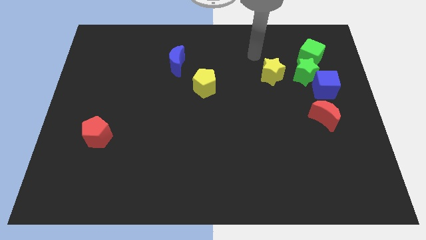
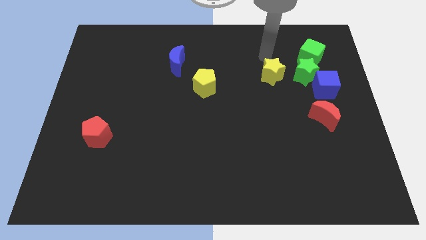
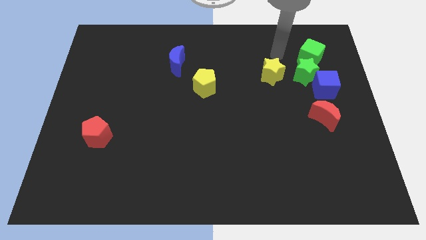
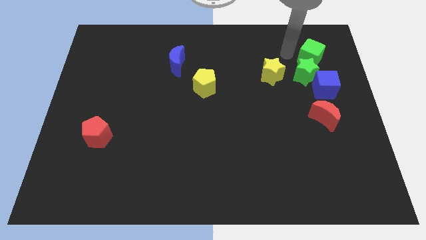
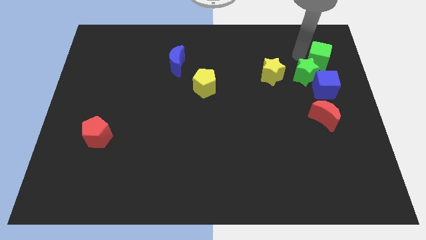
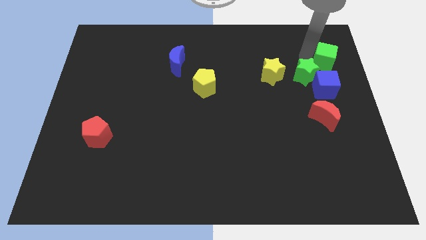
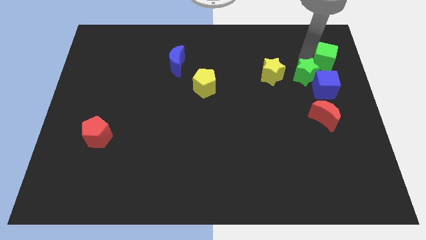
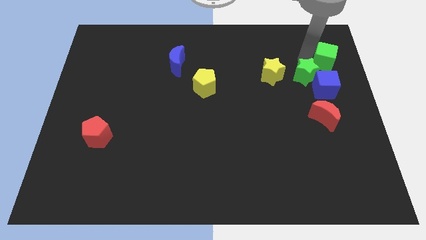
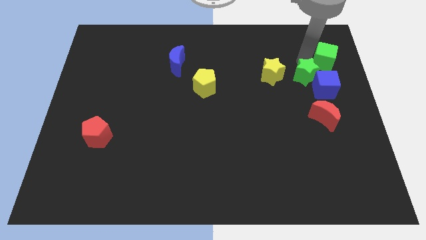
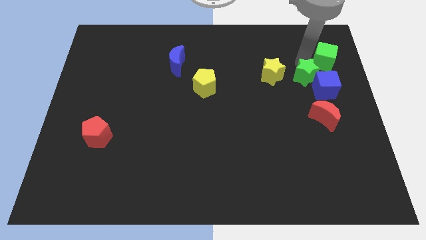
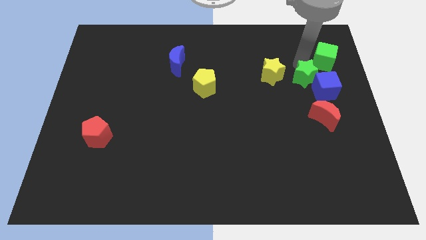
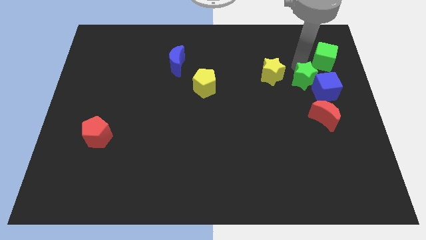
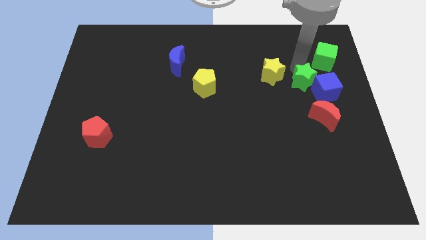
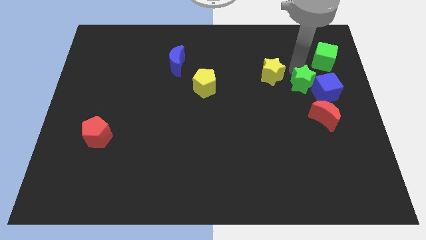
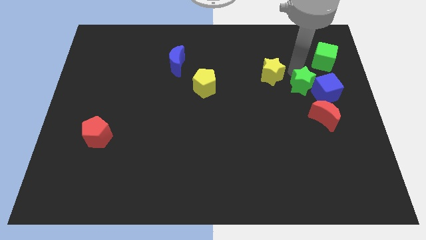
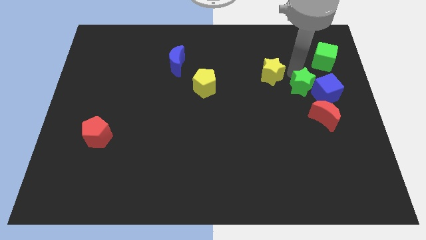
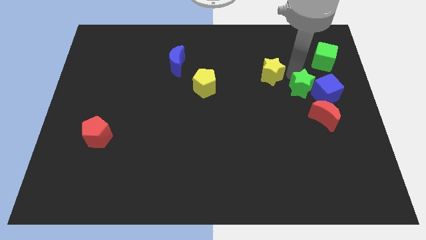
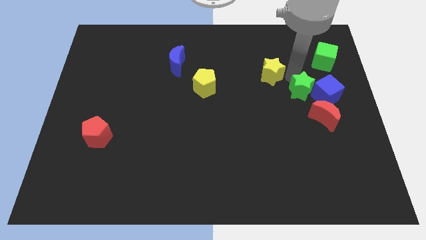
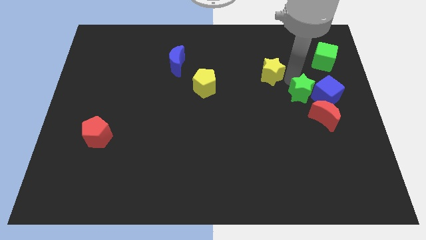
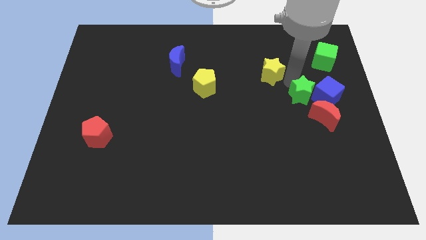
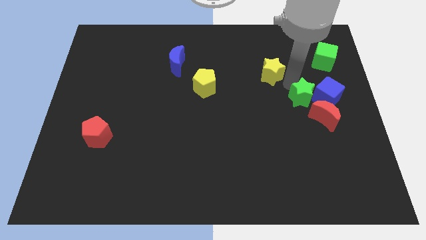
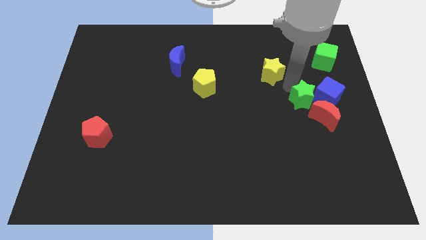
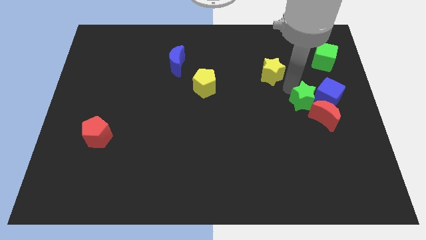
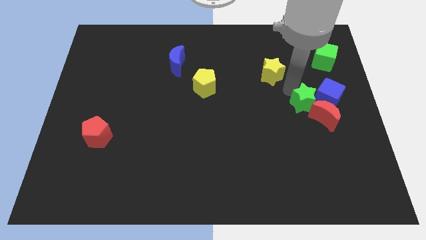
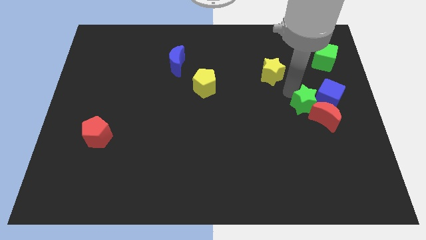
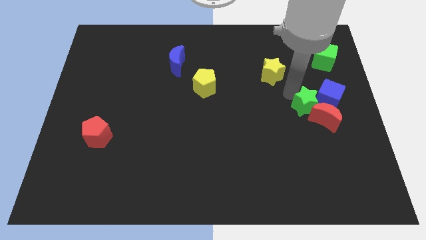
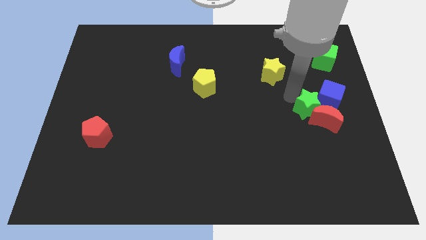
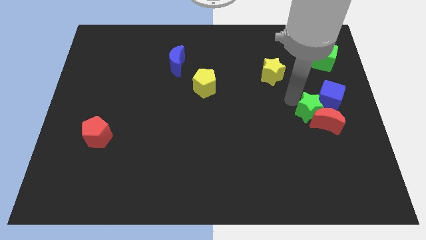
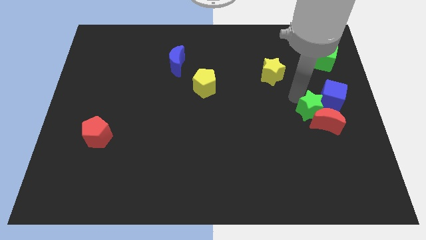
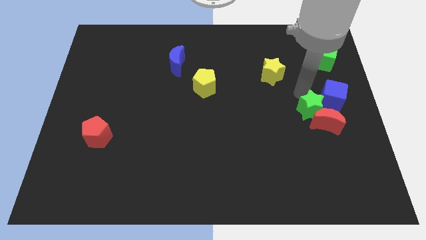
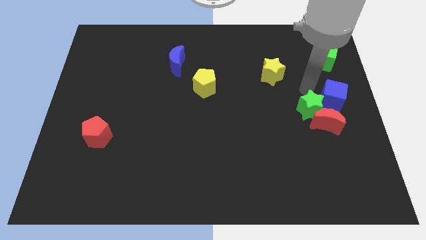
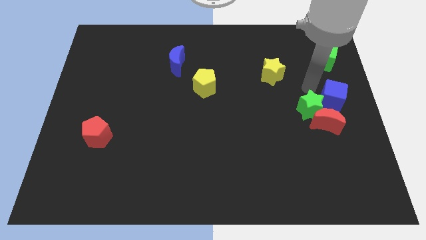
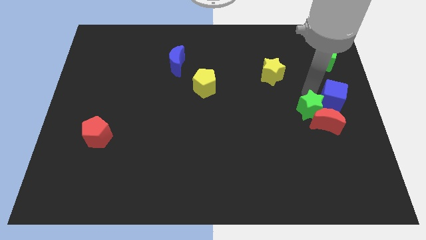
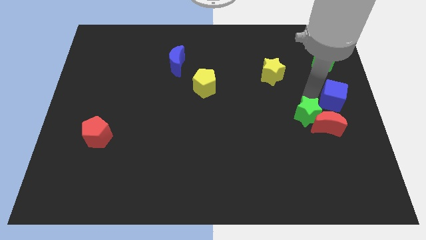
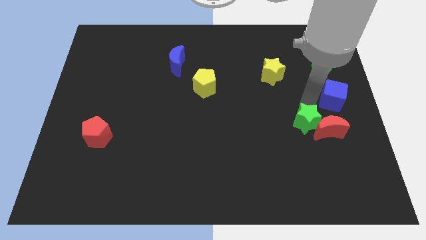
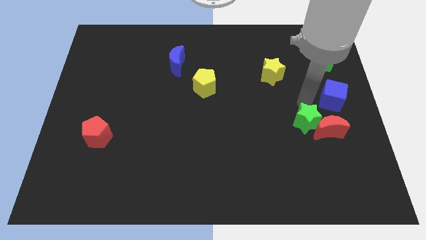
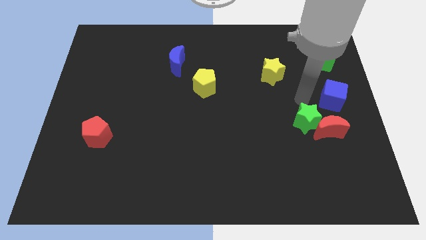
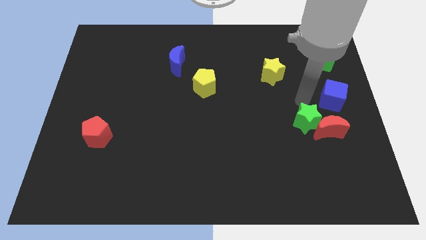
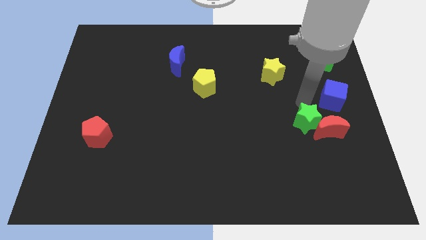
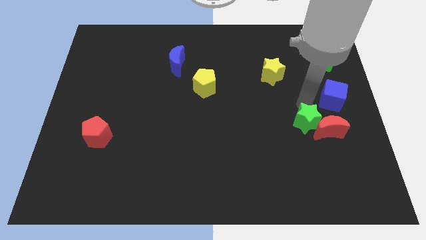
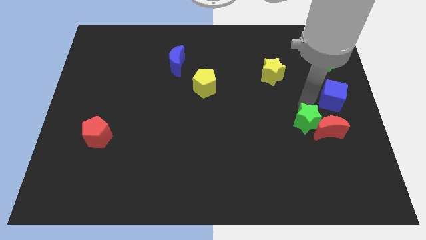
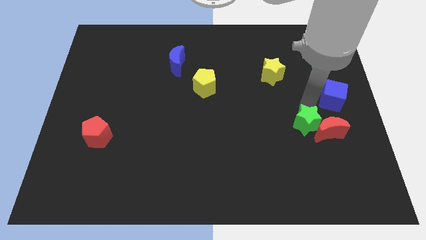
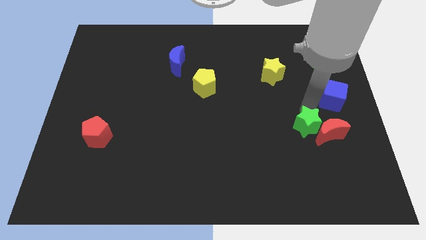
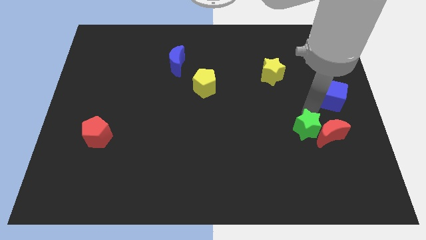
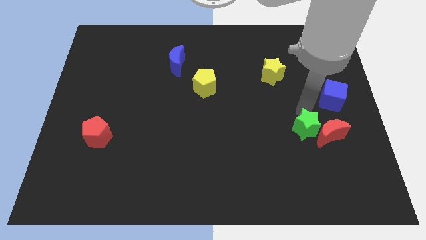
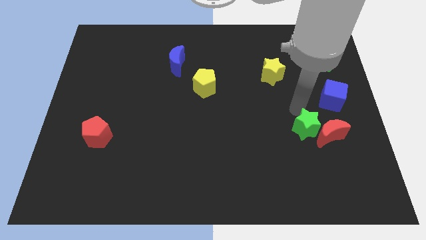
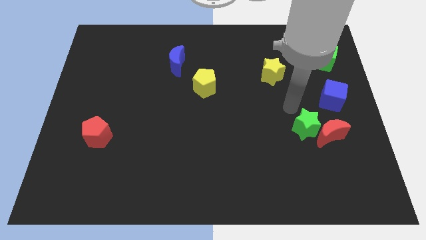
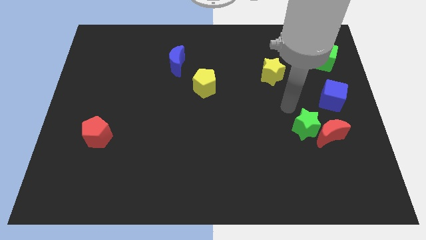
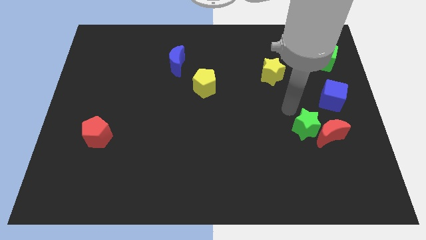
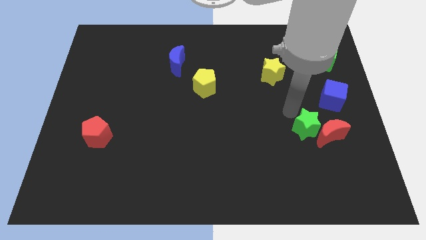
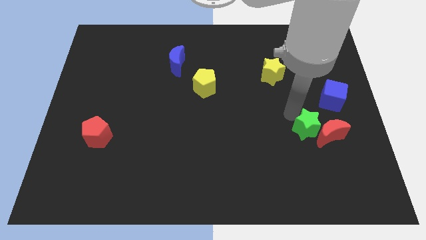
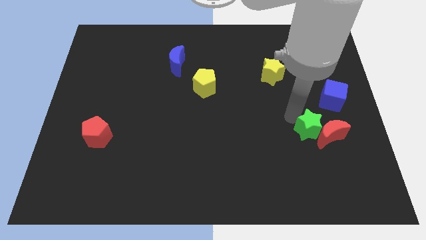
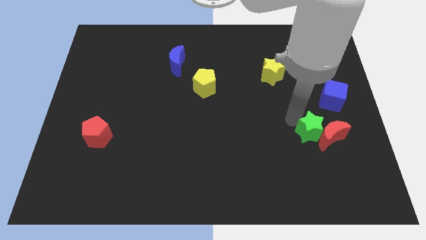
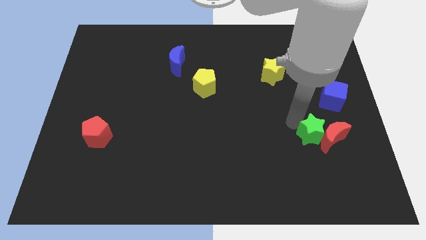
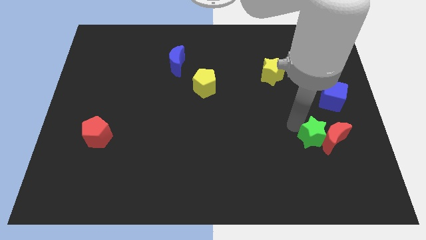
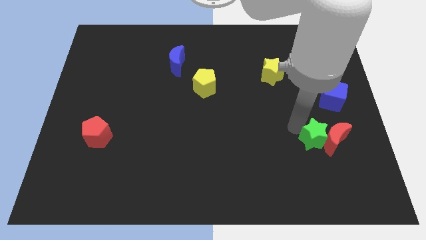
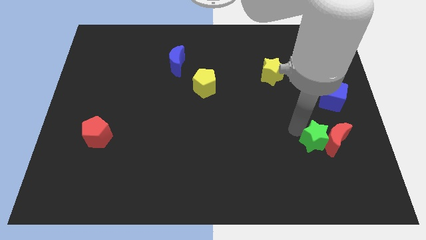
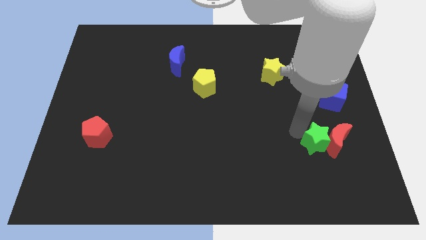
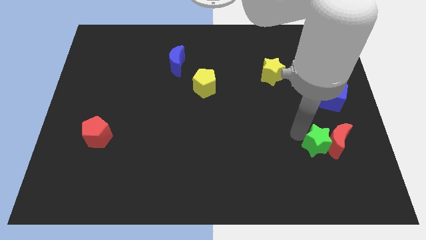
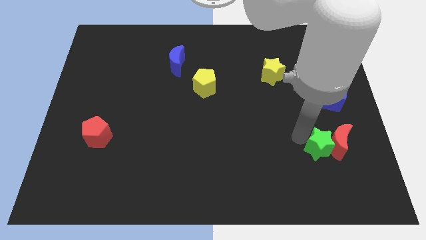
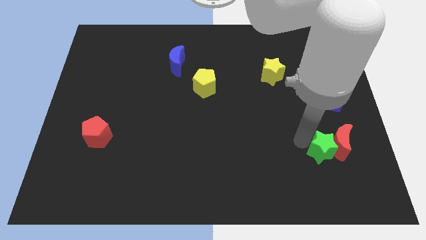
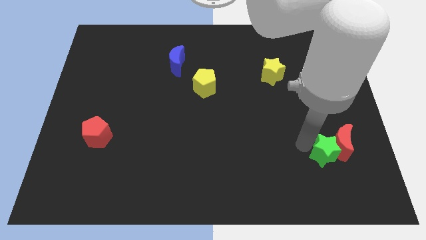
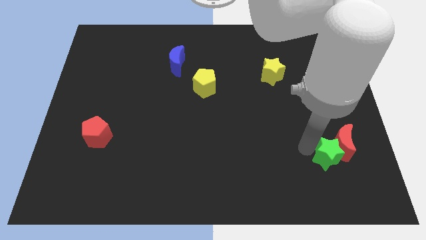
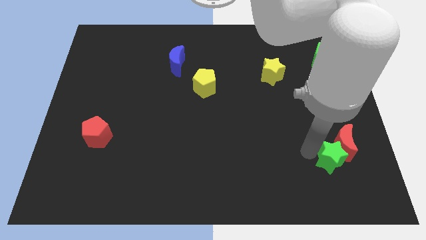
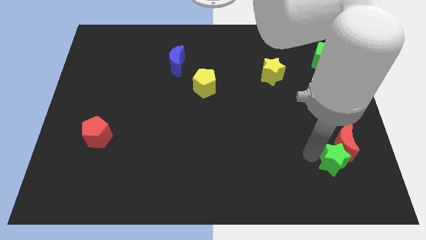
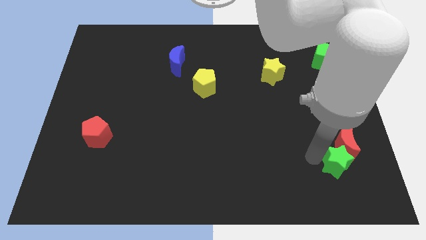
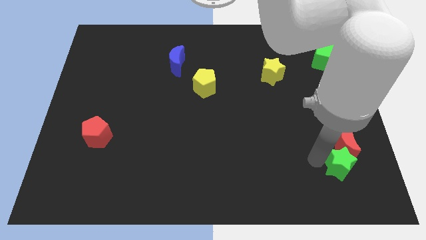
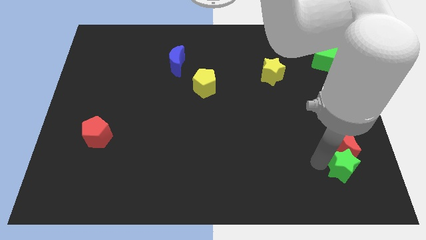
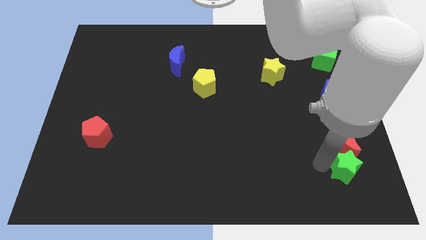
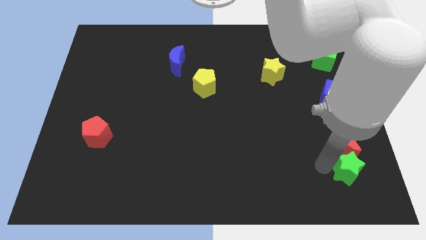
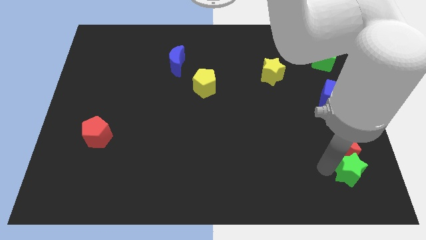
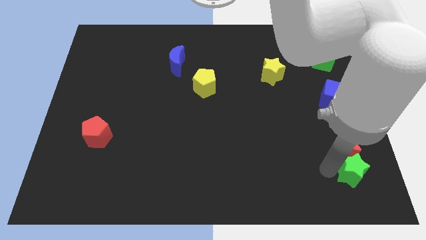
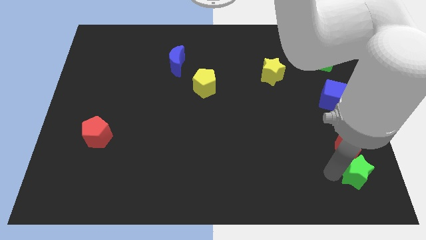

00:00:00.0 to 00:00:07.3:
push the green star to the bottom right
